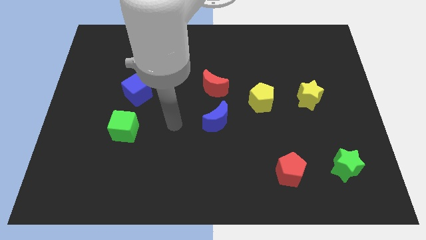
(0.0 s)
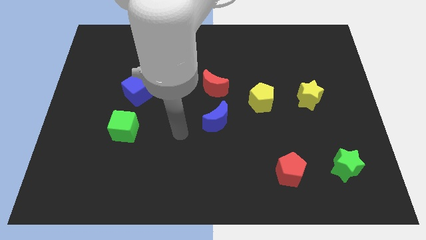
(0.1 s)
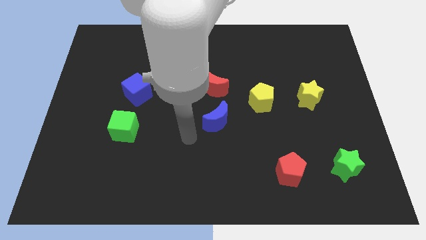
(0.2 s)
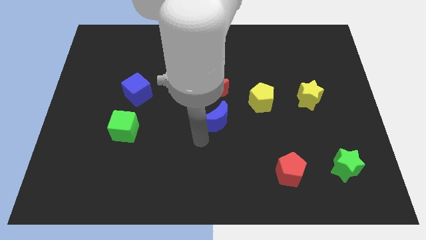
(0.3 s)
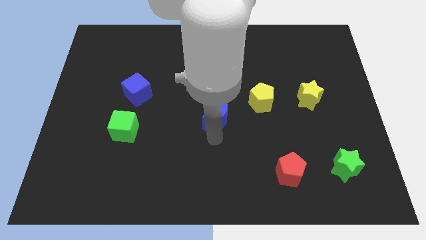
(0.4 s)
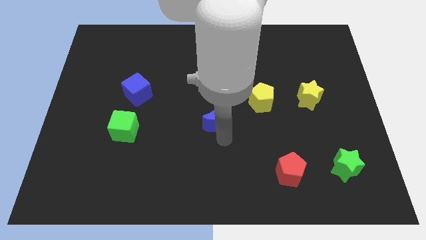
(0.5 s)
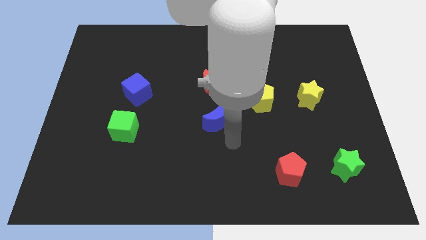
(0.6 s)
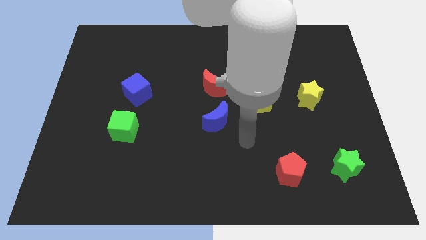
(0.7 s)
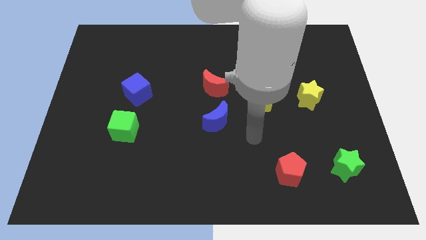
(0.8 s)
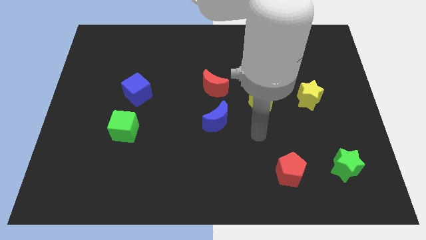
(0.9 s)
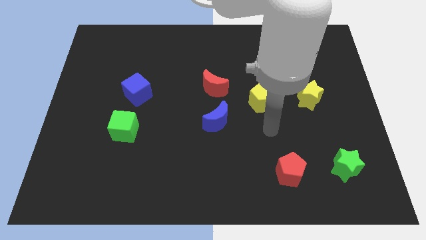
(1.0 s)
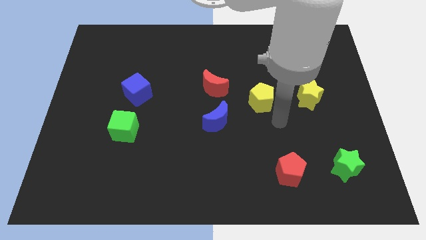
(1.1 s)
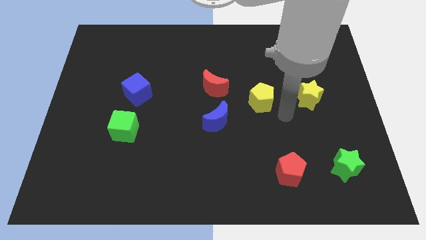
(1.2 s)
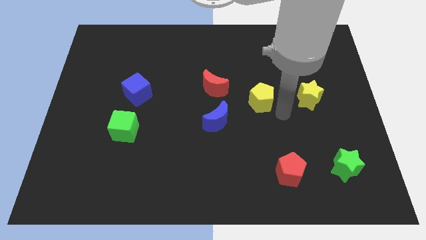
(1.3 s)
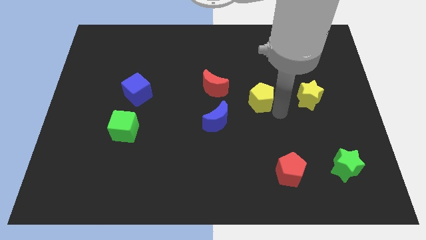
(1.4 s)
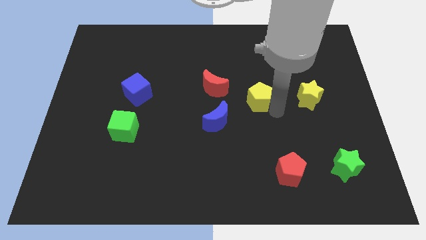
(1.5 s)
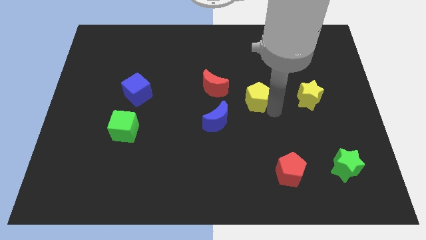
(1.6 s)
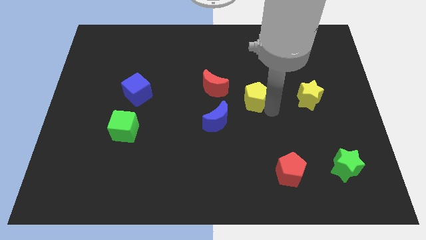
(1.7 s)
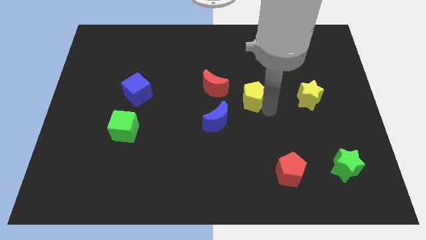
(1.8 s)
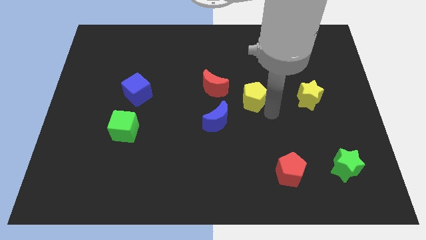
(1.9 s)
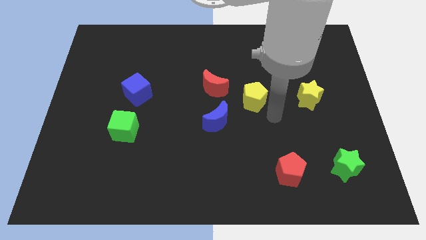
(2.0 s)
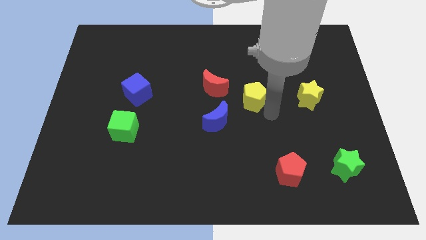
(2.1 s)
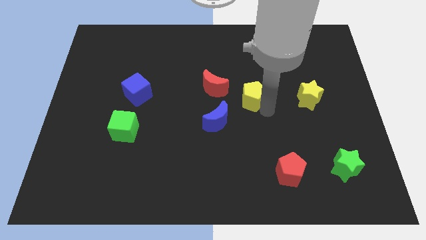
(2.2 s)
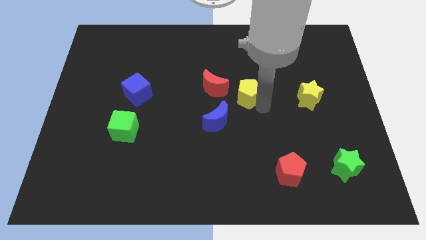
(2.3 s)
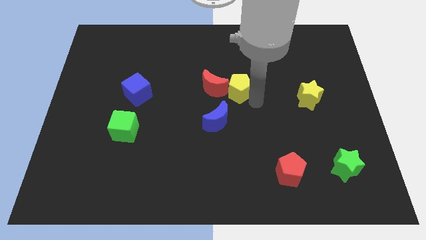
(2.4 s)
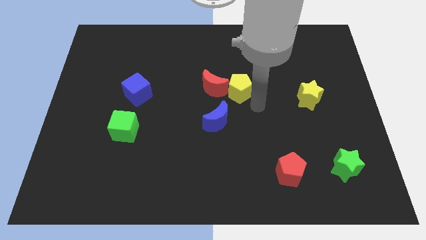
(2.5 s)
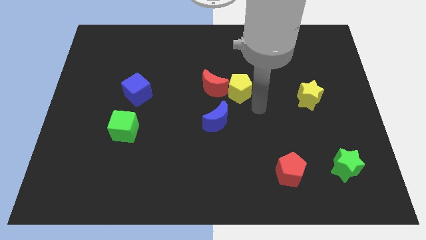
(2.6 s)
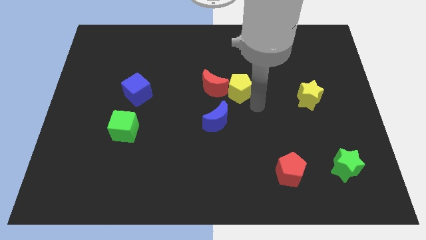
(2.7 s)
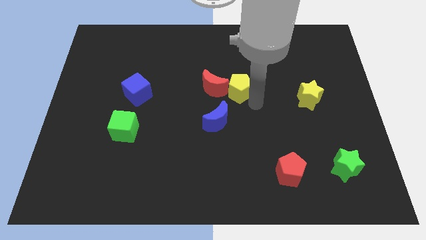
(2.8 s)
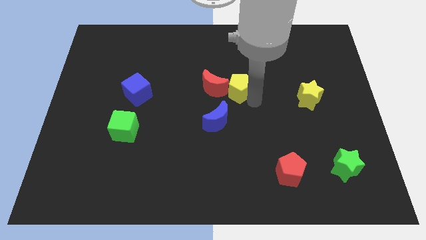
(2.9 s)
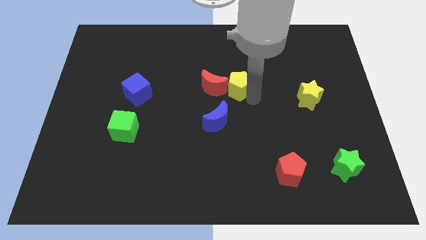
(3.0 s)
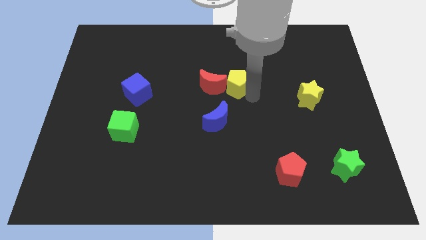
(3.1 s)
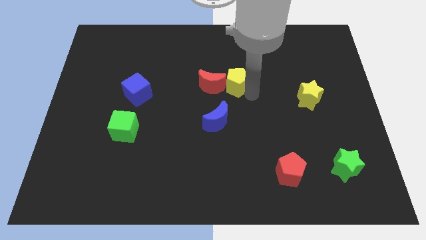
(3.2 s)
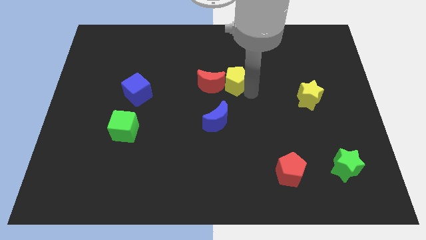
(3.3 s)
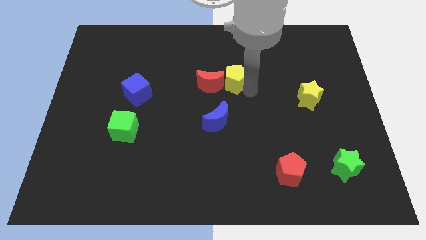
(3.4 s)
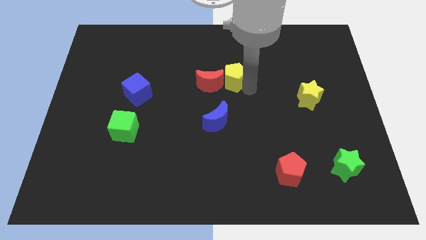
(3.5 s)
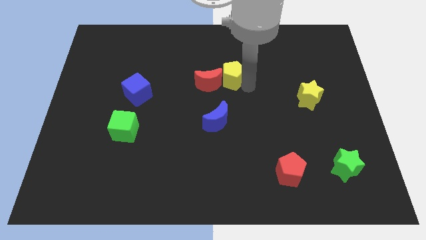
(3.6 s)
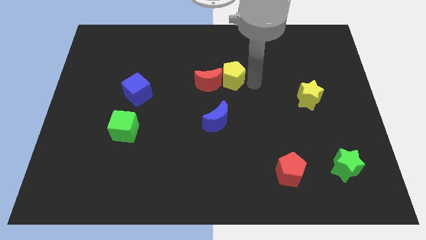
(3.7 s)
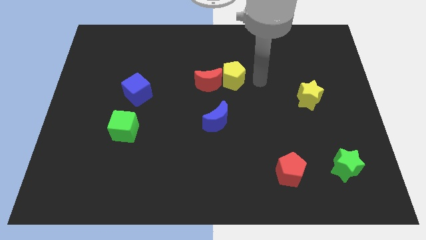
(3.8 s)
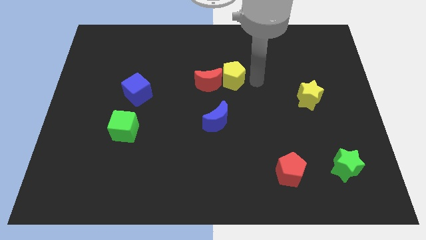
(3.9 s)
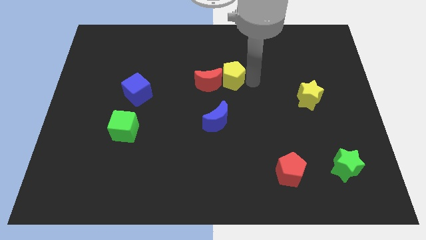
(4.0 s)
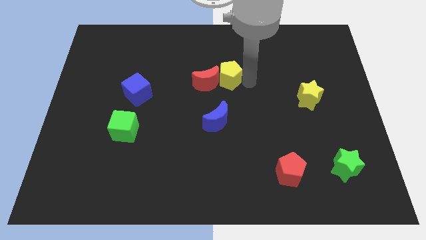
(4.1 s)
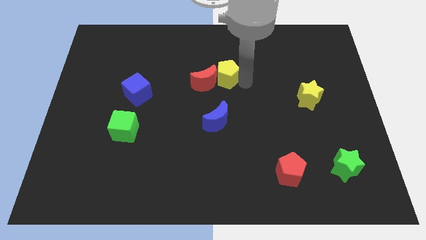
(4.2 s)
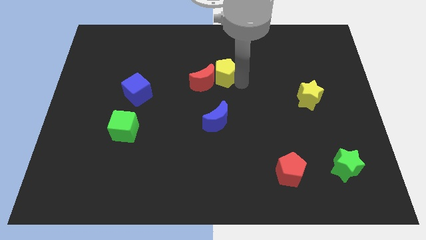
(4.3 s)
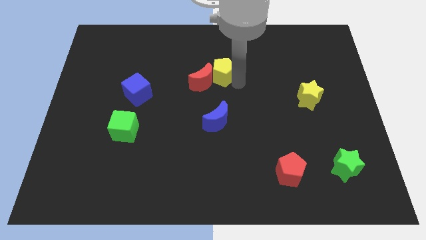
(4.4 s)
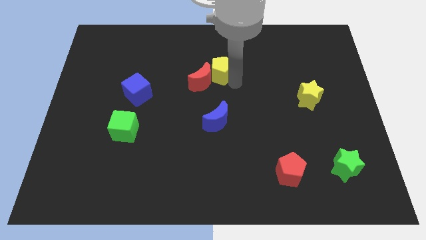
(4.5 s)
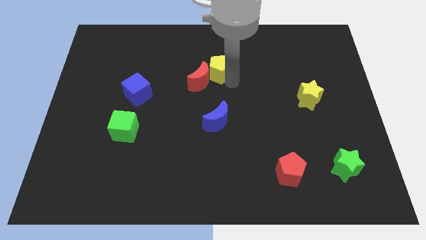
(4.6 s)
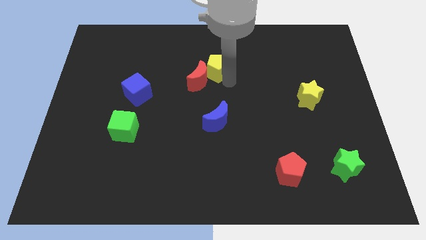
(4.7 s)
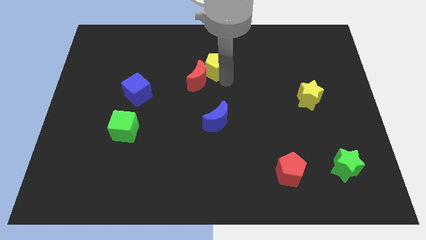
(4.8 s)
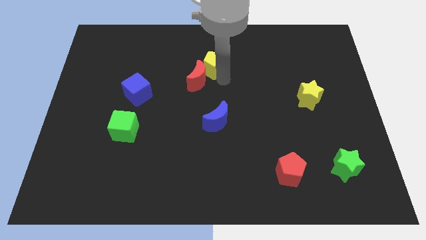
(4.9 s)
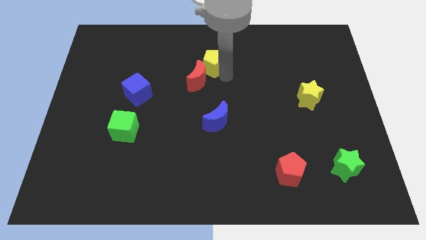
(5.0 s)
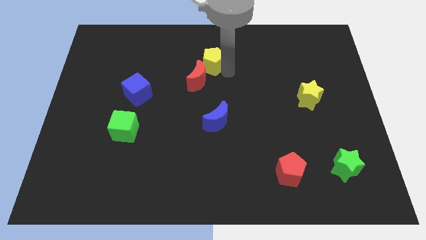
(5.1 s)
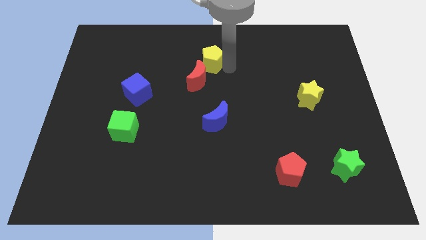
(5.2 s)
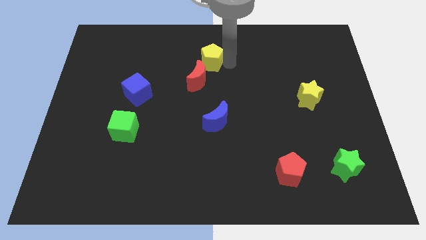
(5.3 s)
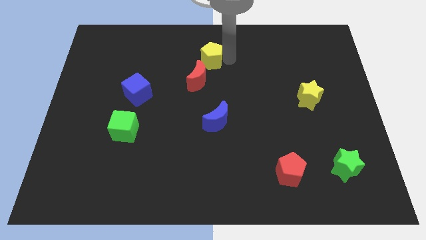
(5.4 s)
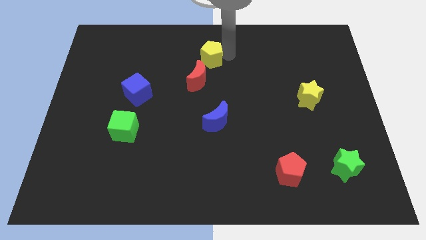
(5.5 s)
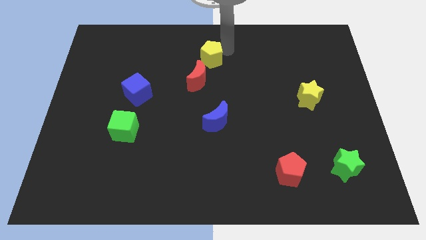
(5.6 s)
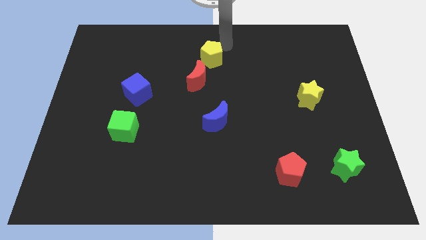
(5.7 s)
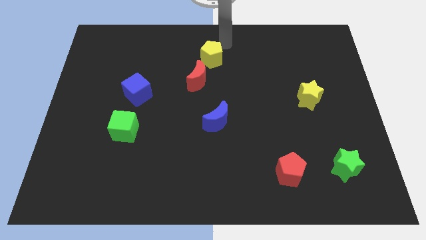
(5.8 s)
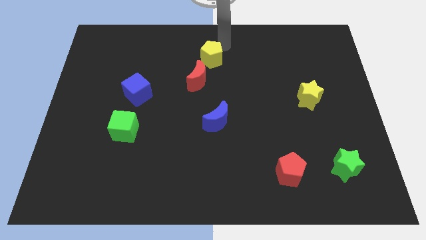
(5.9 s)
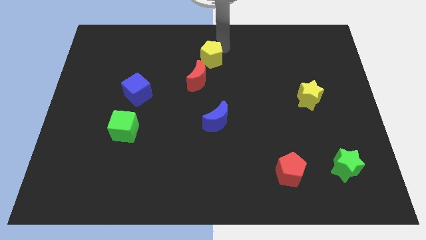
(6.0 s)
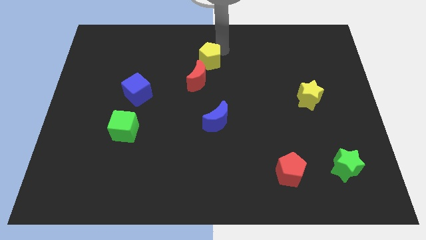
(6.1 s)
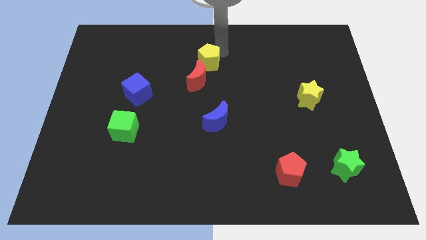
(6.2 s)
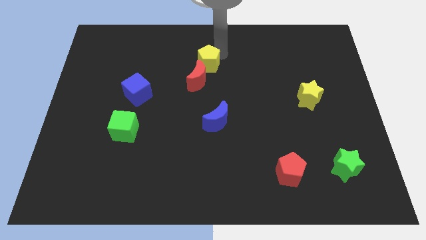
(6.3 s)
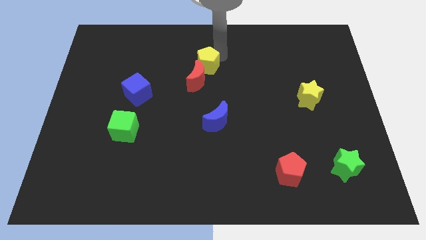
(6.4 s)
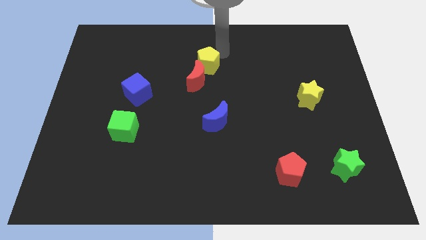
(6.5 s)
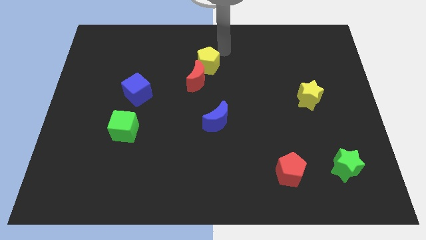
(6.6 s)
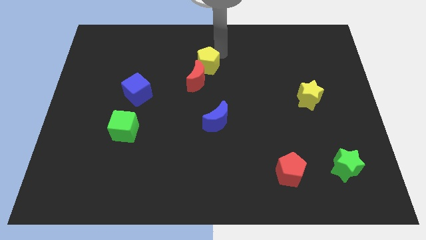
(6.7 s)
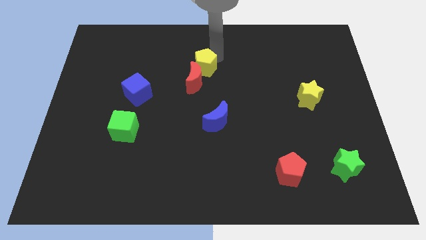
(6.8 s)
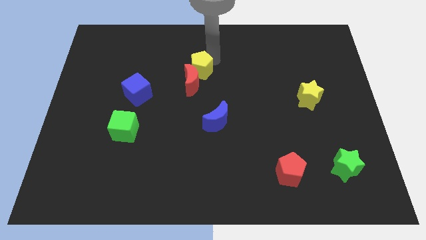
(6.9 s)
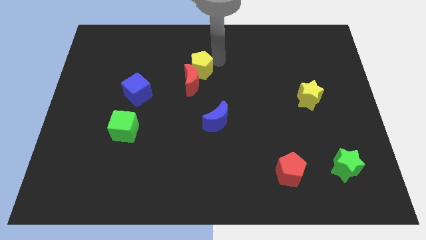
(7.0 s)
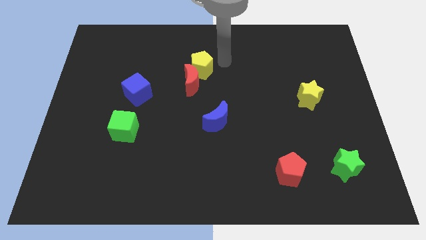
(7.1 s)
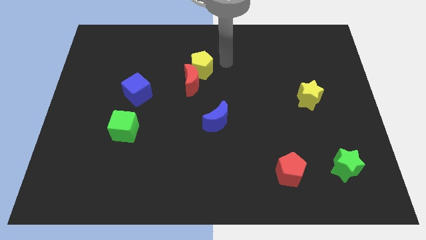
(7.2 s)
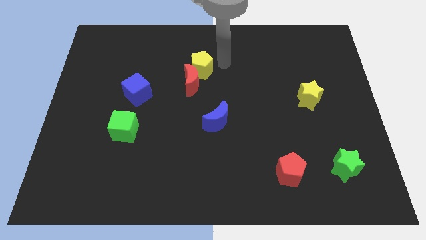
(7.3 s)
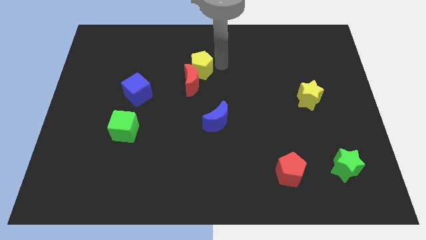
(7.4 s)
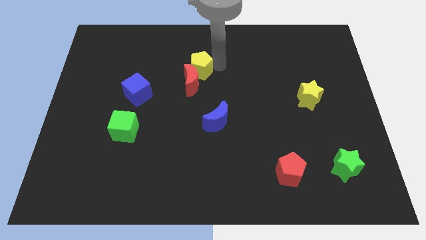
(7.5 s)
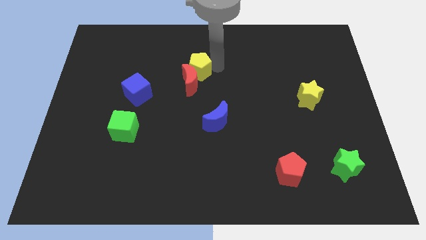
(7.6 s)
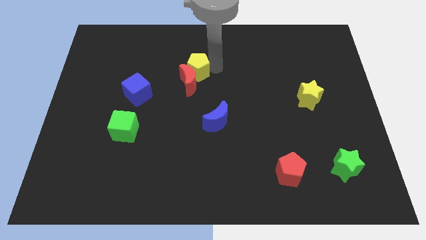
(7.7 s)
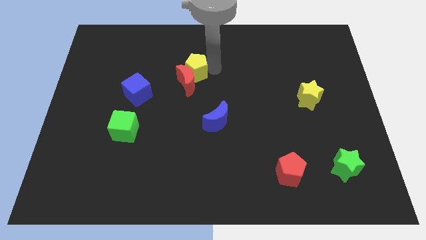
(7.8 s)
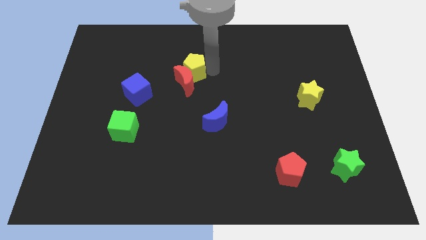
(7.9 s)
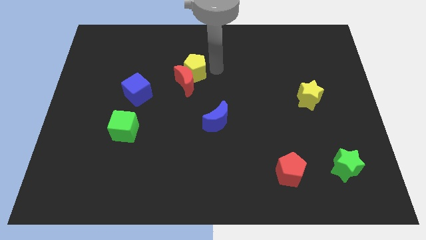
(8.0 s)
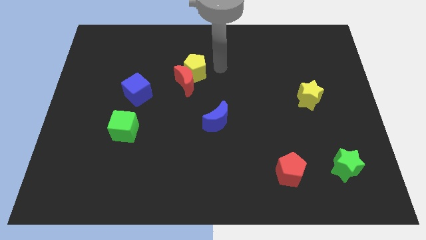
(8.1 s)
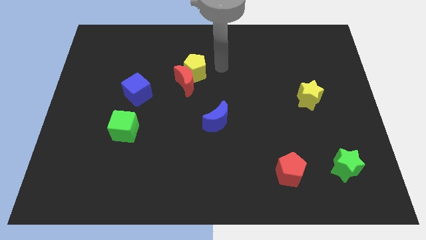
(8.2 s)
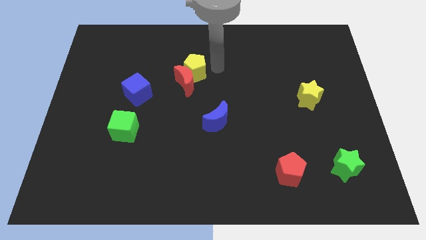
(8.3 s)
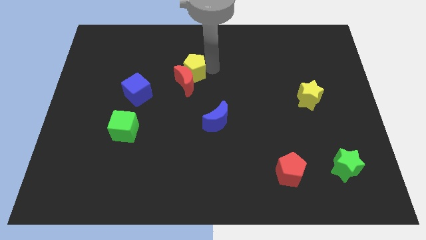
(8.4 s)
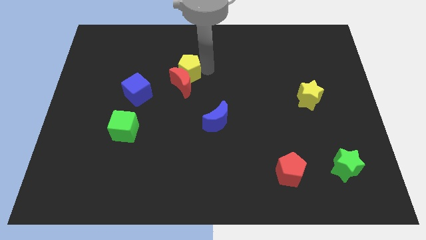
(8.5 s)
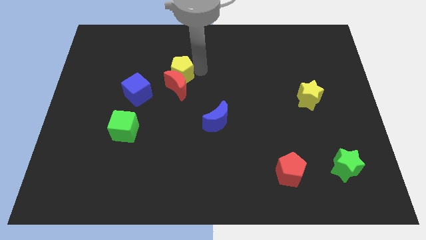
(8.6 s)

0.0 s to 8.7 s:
move the yellow pentagon to the top right of the blue cube
